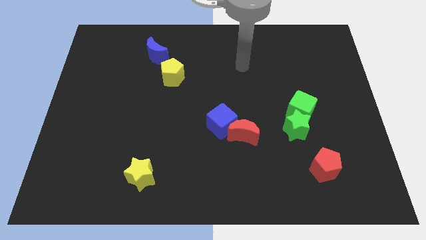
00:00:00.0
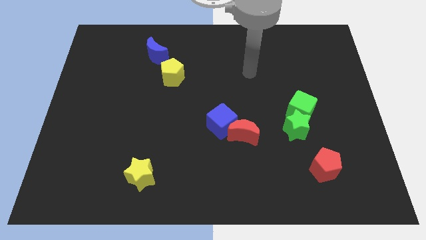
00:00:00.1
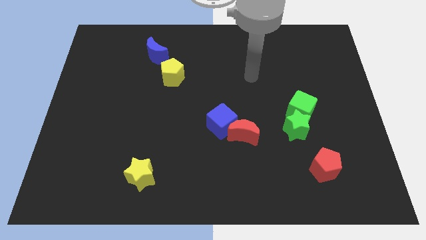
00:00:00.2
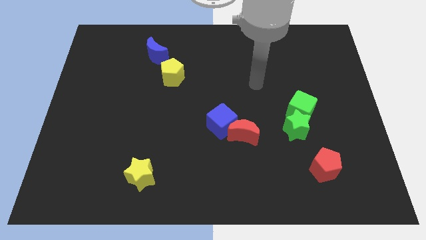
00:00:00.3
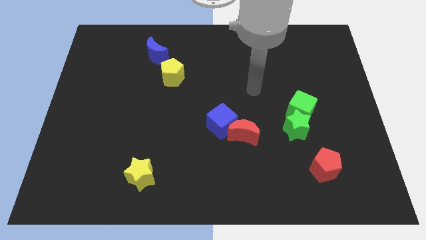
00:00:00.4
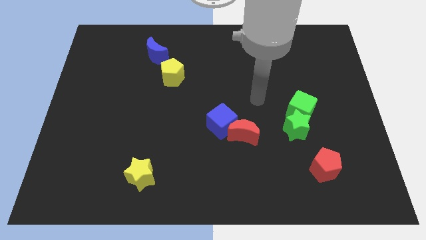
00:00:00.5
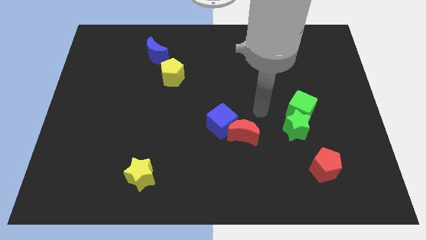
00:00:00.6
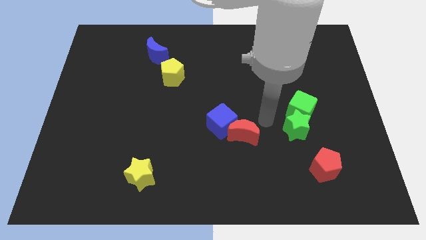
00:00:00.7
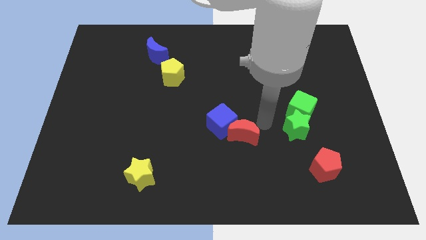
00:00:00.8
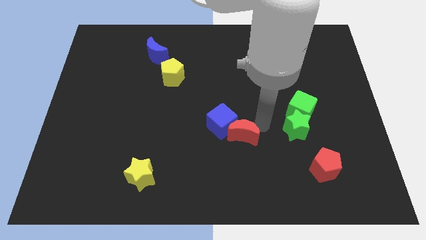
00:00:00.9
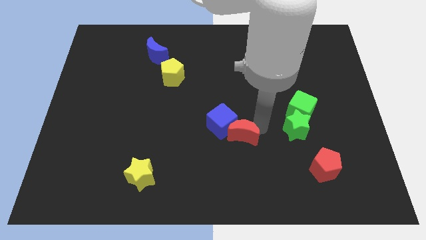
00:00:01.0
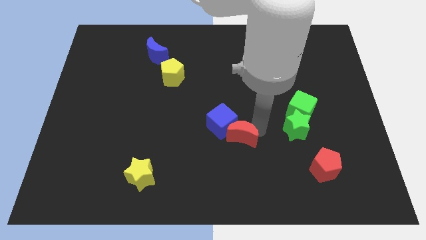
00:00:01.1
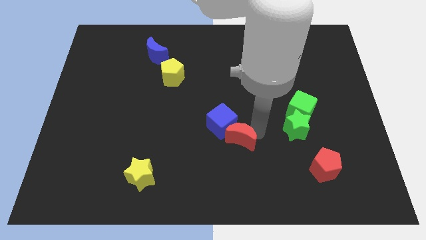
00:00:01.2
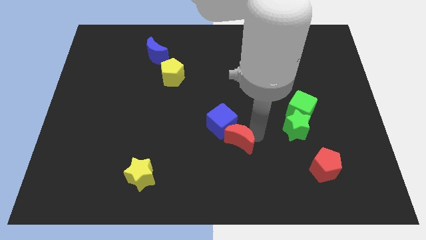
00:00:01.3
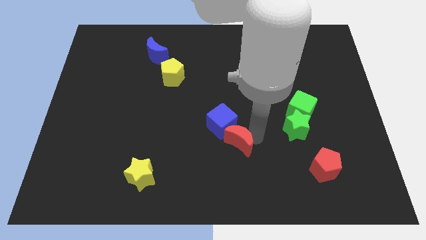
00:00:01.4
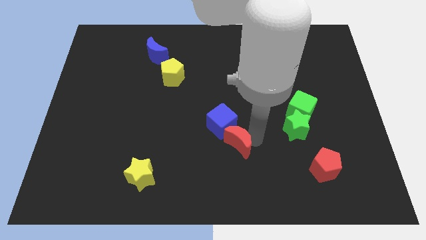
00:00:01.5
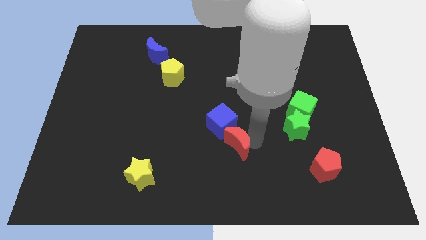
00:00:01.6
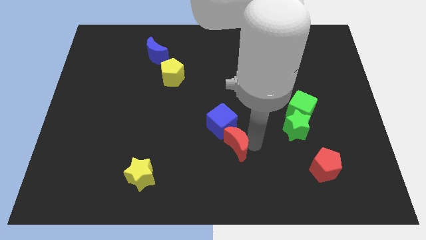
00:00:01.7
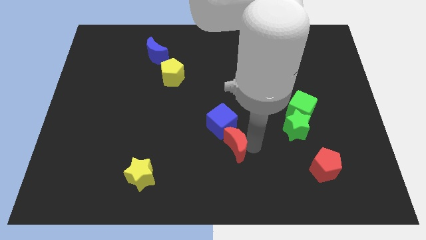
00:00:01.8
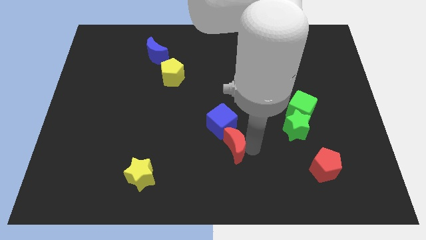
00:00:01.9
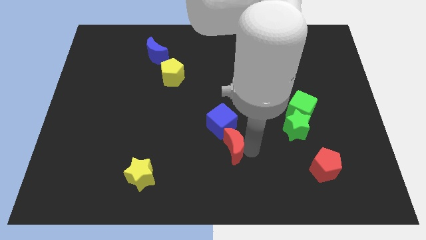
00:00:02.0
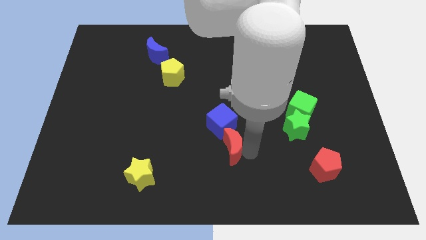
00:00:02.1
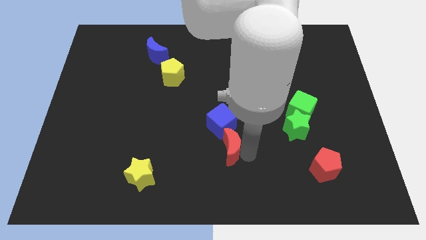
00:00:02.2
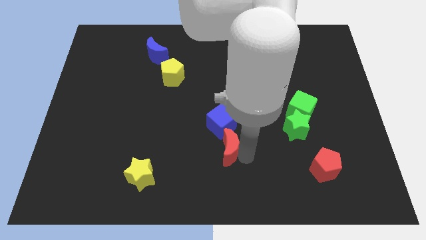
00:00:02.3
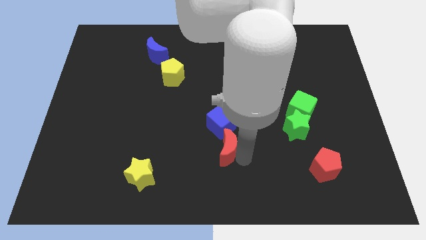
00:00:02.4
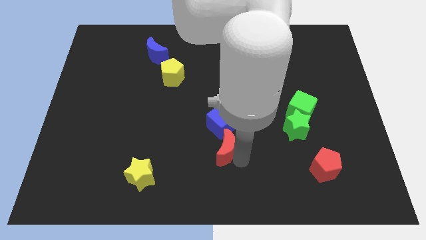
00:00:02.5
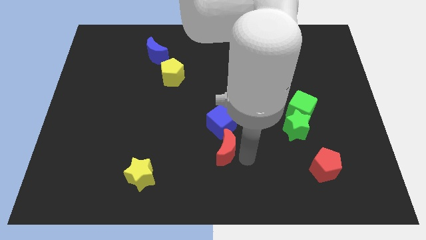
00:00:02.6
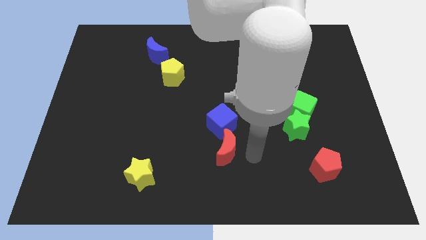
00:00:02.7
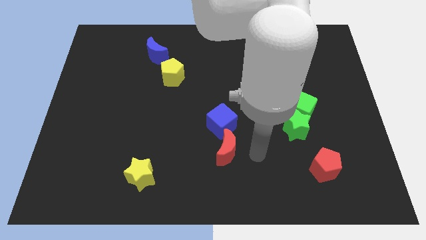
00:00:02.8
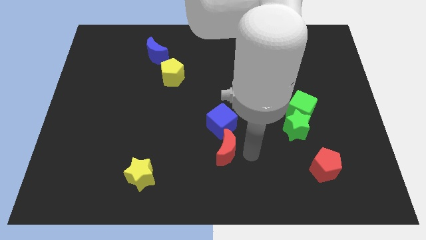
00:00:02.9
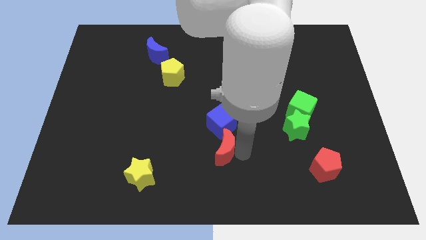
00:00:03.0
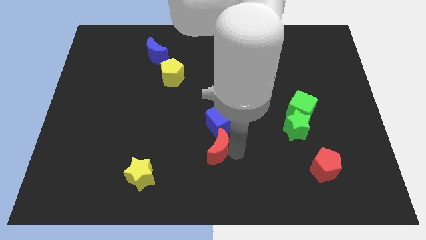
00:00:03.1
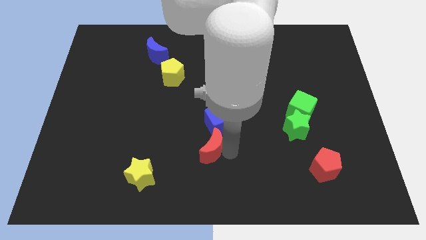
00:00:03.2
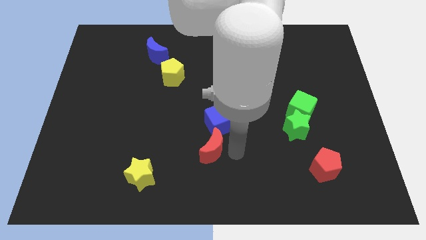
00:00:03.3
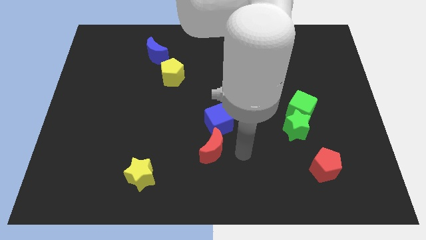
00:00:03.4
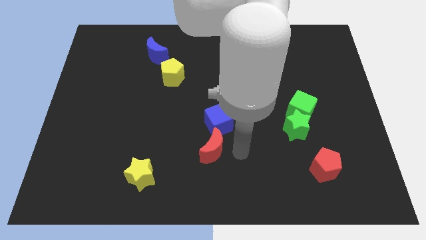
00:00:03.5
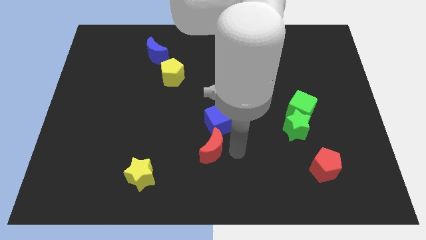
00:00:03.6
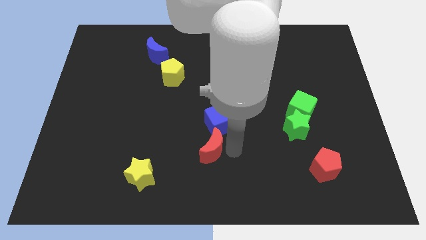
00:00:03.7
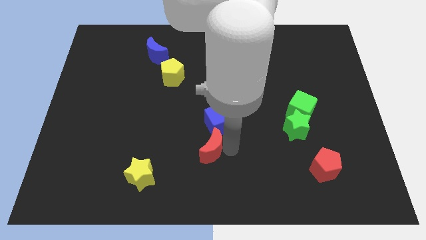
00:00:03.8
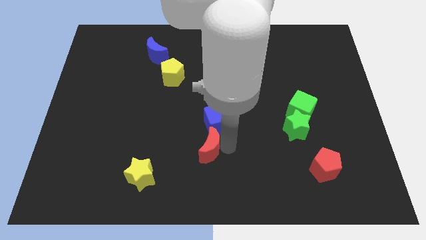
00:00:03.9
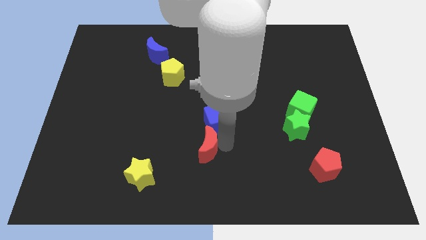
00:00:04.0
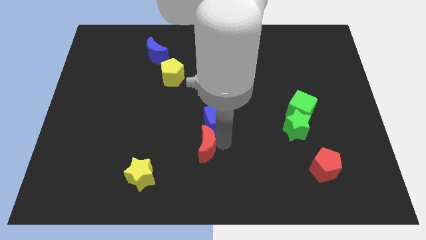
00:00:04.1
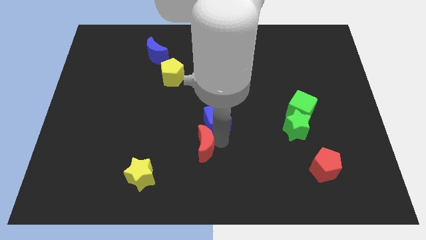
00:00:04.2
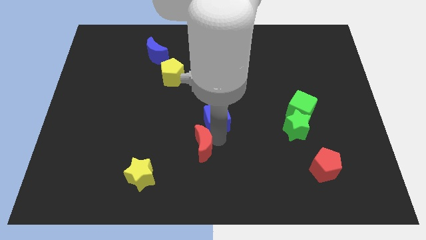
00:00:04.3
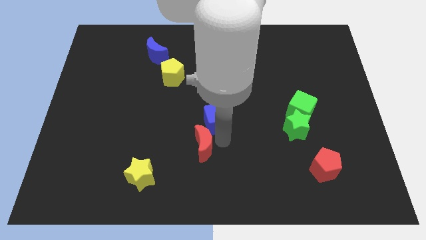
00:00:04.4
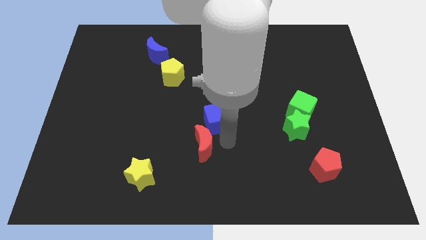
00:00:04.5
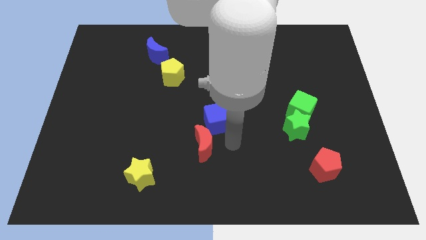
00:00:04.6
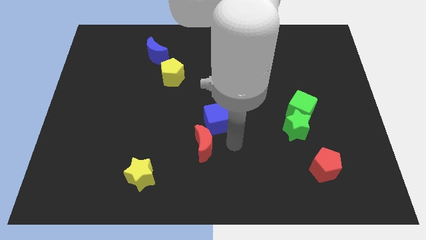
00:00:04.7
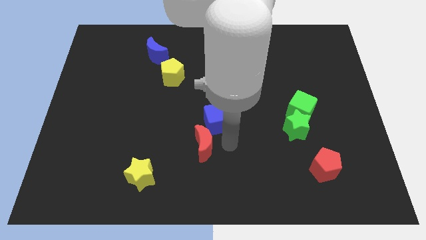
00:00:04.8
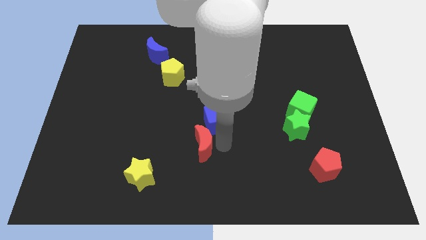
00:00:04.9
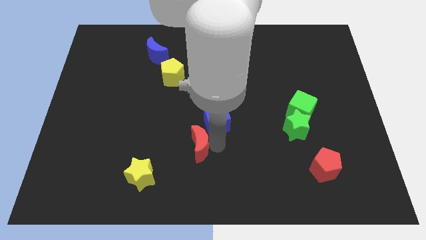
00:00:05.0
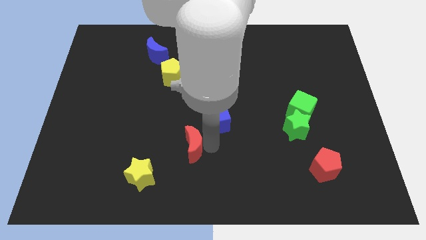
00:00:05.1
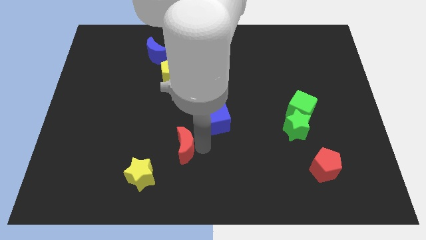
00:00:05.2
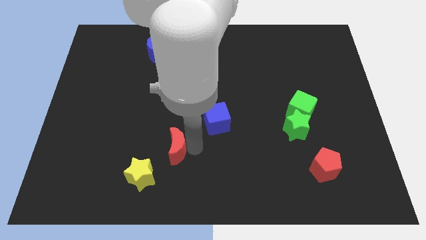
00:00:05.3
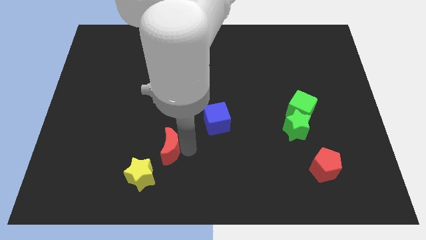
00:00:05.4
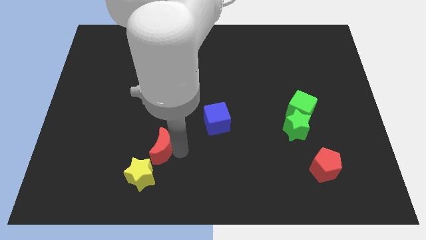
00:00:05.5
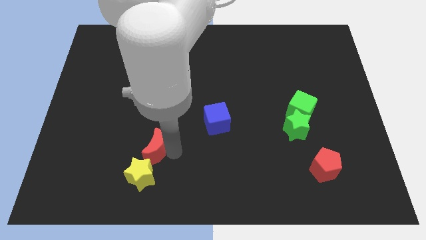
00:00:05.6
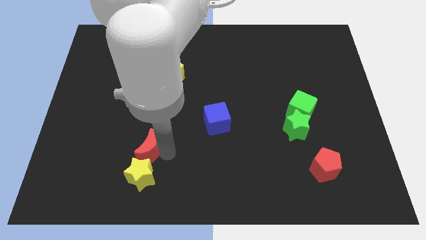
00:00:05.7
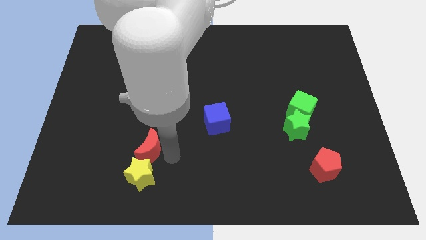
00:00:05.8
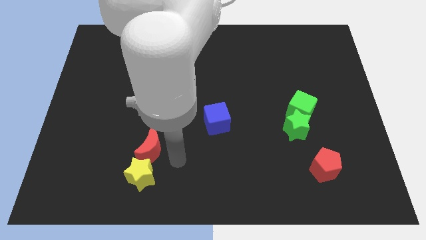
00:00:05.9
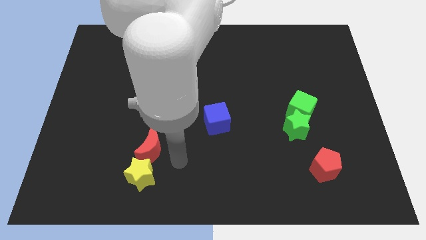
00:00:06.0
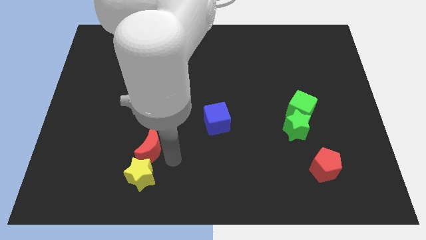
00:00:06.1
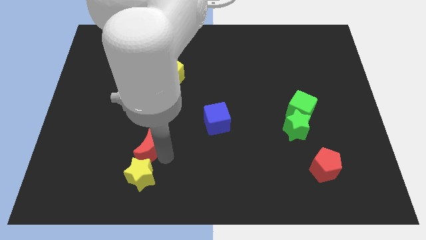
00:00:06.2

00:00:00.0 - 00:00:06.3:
move the red moon to the left

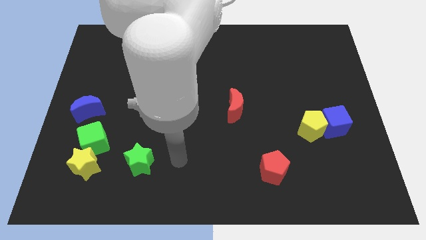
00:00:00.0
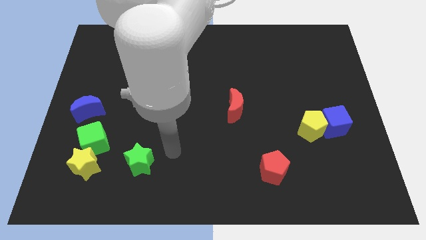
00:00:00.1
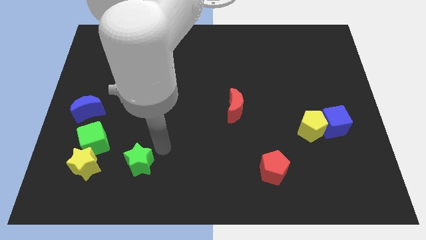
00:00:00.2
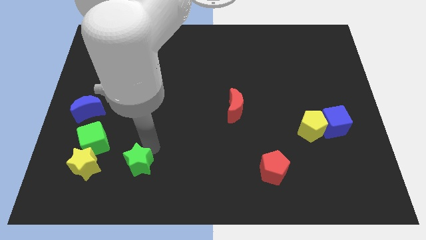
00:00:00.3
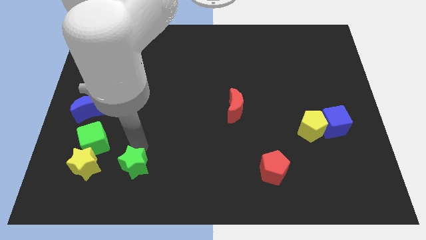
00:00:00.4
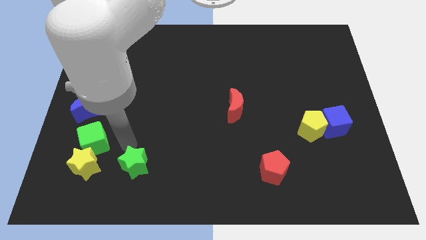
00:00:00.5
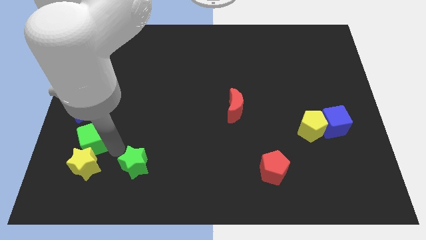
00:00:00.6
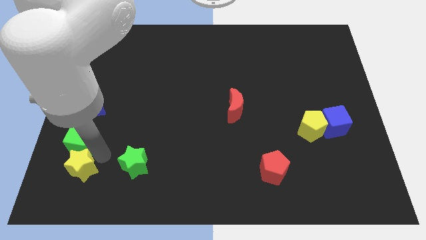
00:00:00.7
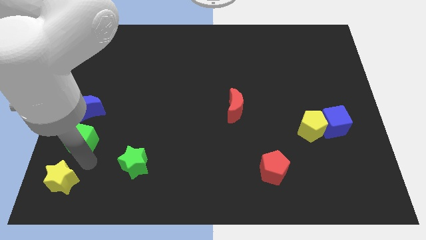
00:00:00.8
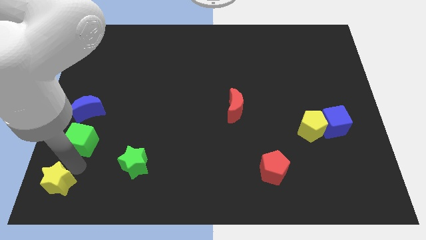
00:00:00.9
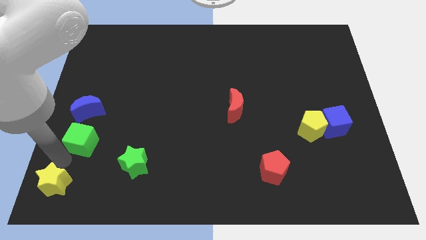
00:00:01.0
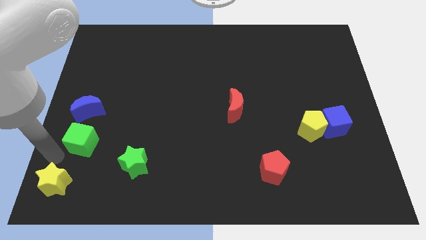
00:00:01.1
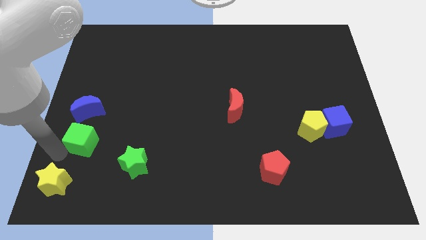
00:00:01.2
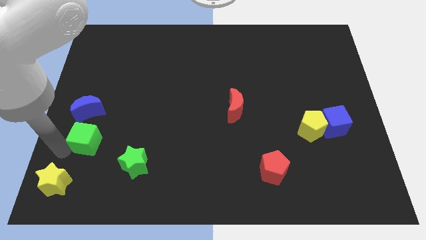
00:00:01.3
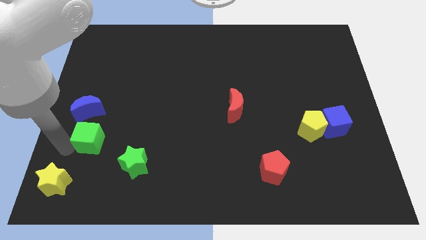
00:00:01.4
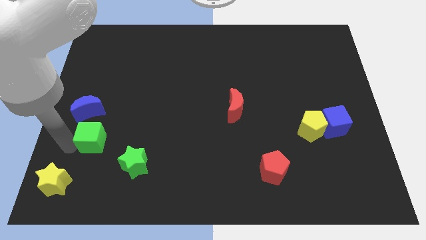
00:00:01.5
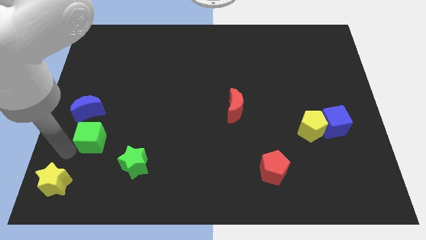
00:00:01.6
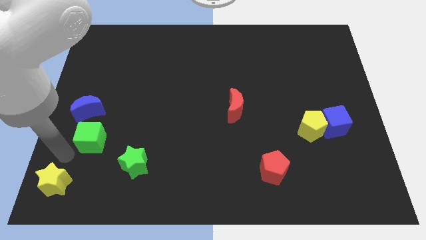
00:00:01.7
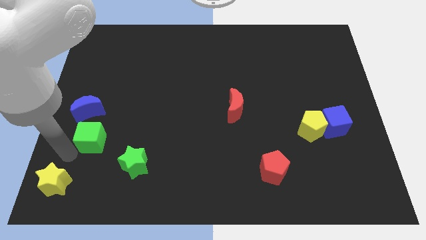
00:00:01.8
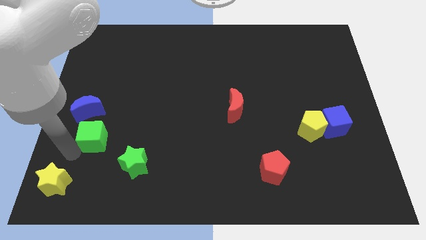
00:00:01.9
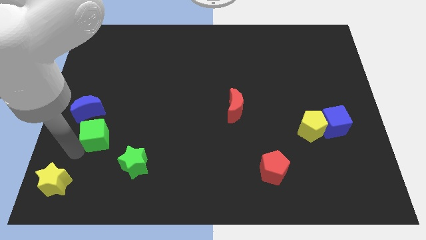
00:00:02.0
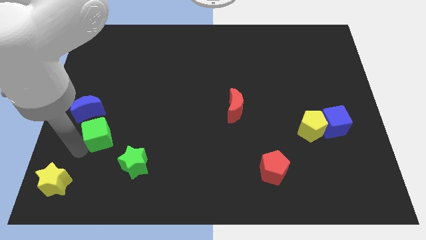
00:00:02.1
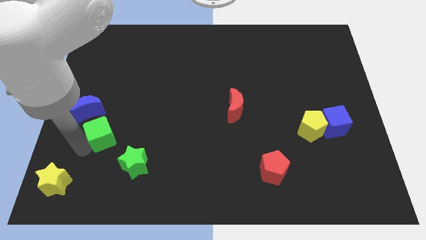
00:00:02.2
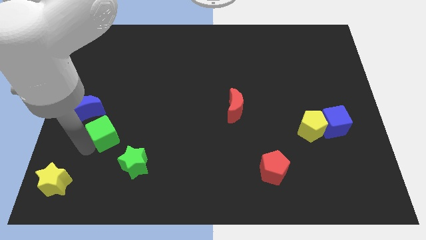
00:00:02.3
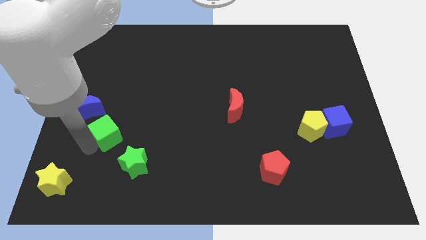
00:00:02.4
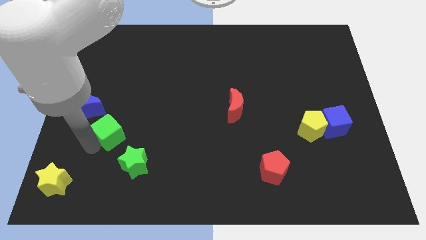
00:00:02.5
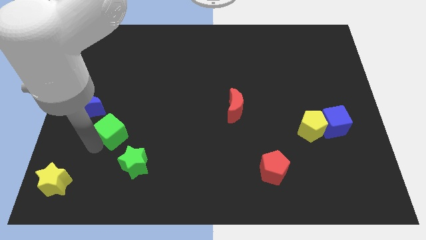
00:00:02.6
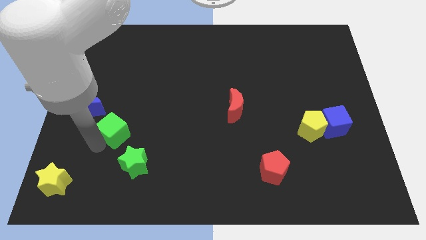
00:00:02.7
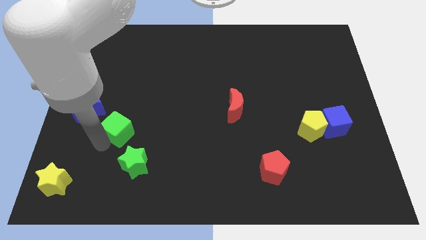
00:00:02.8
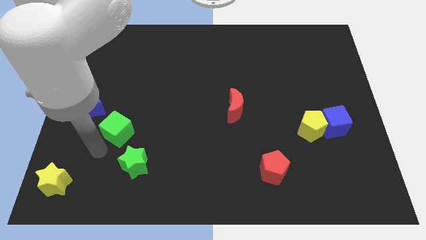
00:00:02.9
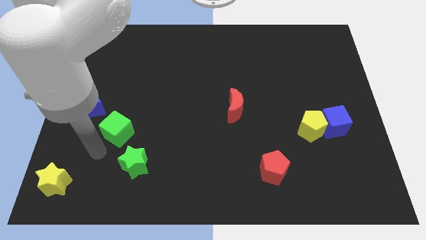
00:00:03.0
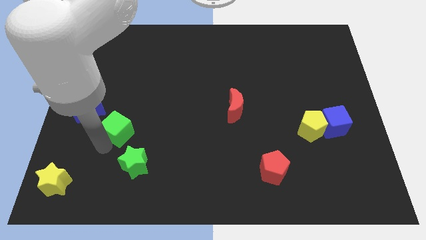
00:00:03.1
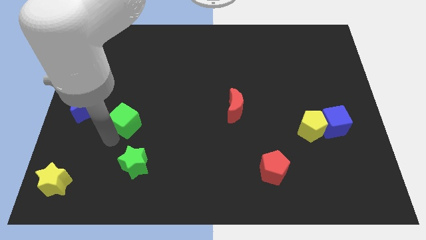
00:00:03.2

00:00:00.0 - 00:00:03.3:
slide the green cube a little up and to the right diagonally
